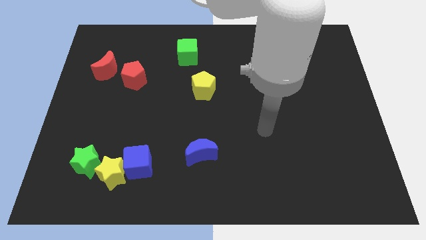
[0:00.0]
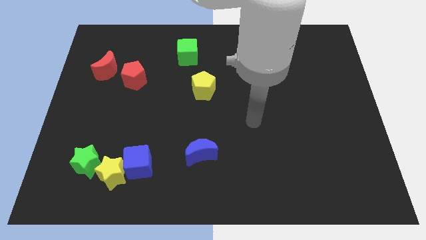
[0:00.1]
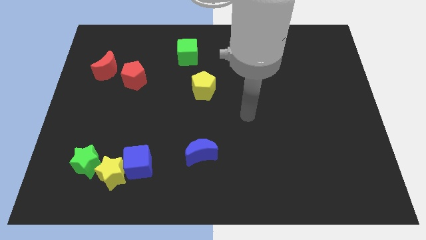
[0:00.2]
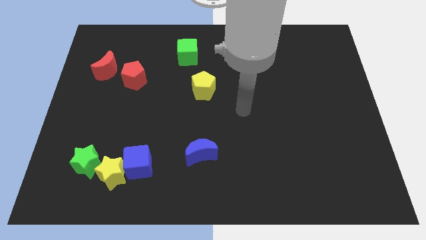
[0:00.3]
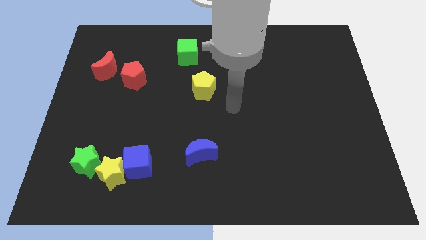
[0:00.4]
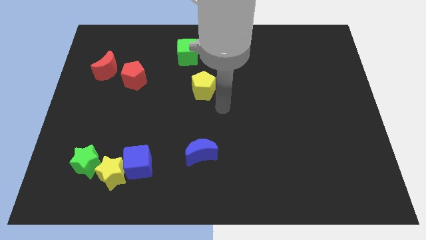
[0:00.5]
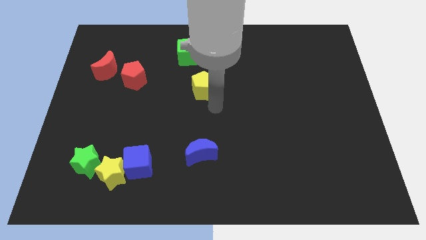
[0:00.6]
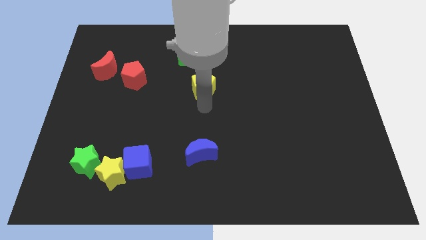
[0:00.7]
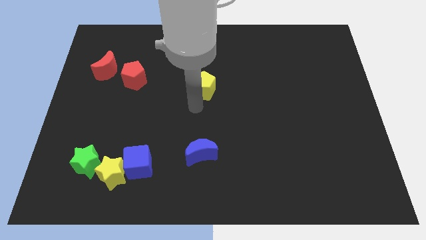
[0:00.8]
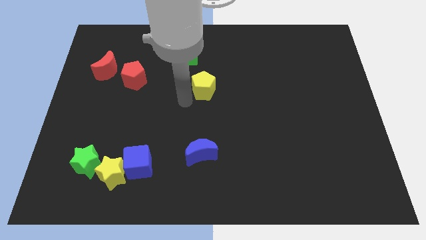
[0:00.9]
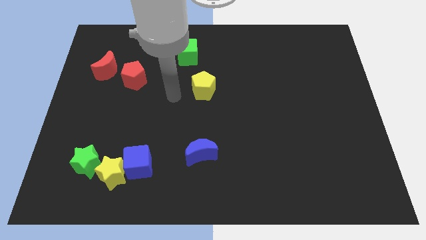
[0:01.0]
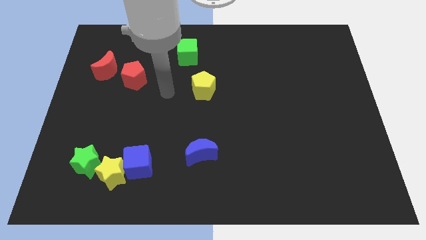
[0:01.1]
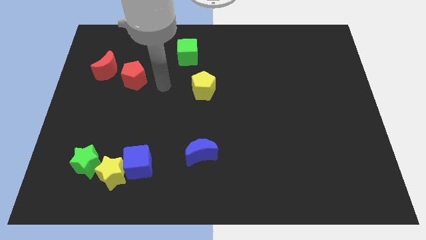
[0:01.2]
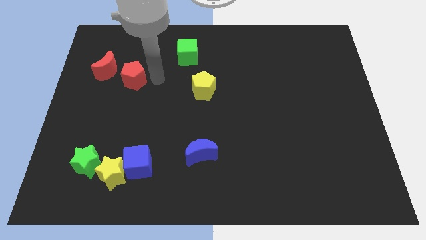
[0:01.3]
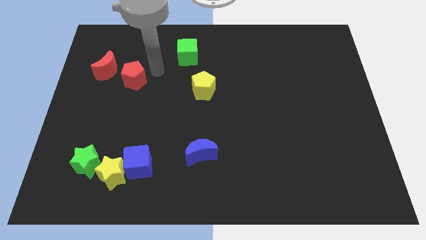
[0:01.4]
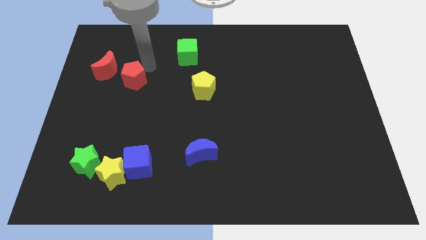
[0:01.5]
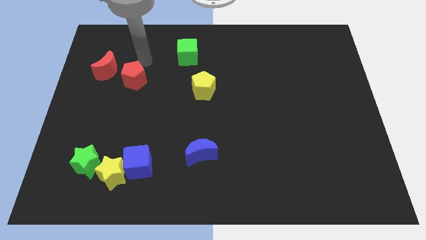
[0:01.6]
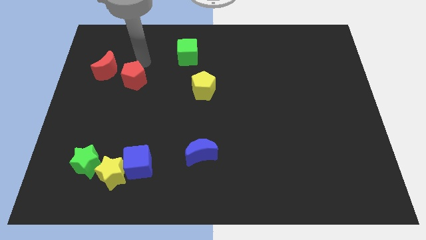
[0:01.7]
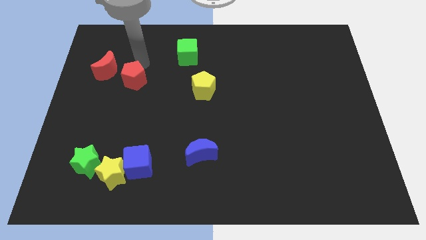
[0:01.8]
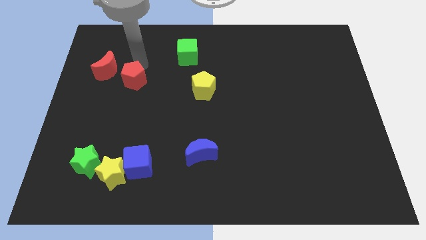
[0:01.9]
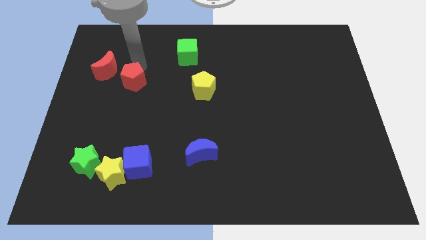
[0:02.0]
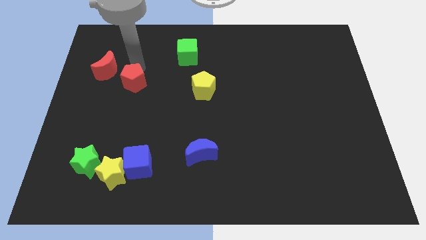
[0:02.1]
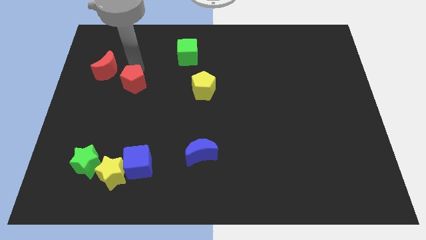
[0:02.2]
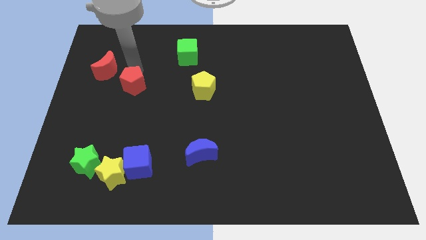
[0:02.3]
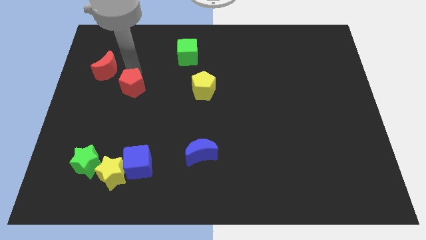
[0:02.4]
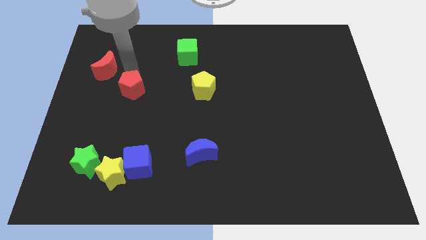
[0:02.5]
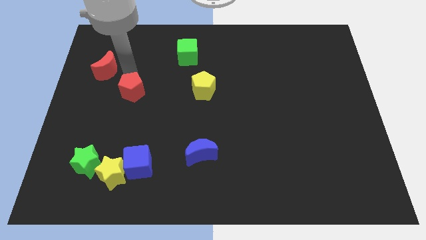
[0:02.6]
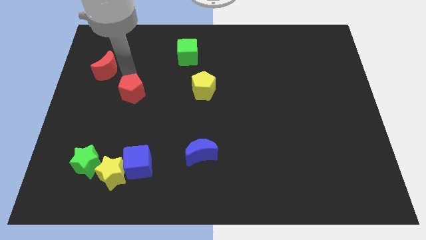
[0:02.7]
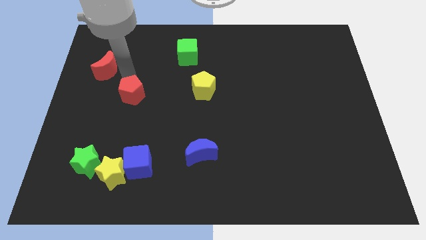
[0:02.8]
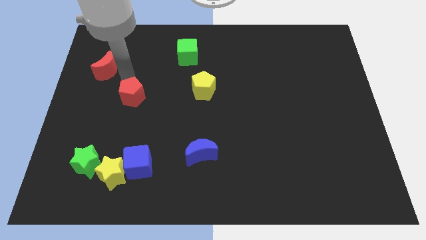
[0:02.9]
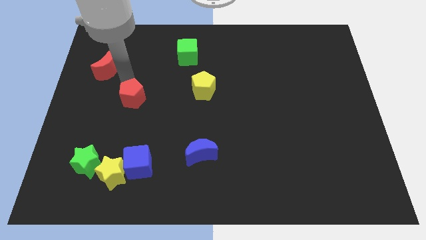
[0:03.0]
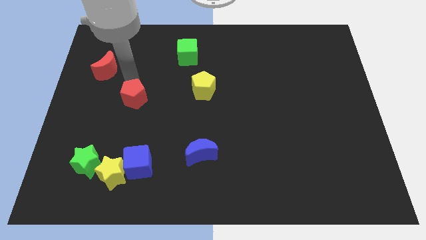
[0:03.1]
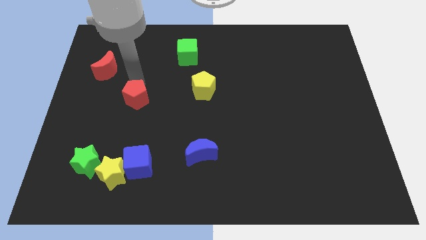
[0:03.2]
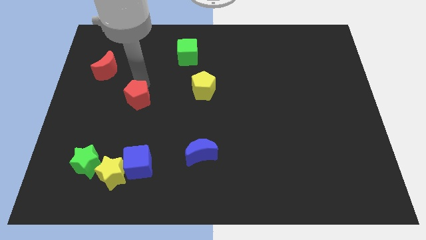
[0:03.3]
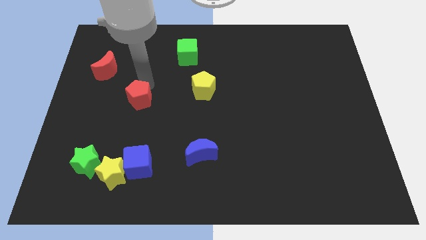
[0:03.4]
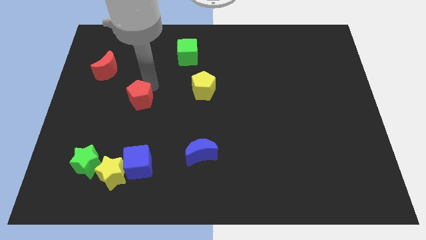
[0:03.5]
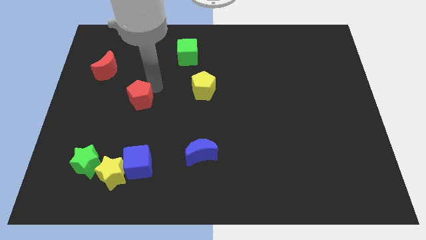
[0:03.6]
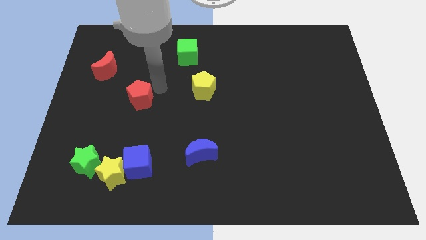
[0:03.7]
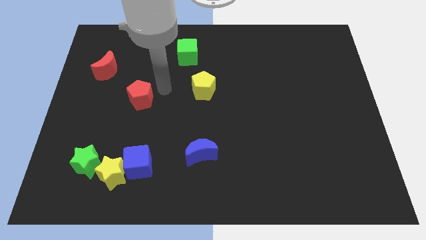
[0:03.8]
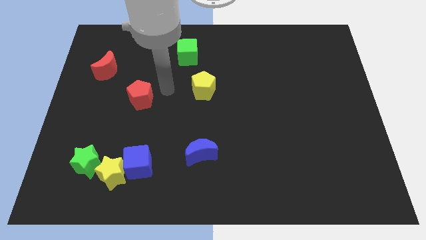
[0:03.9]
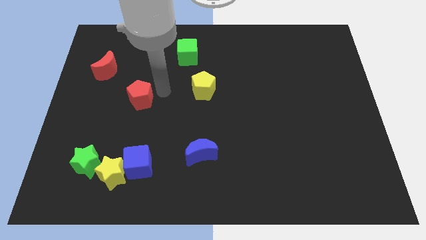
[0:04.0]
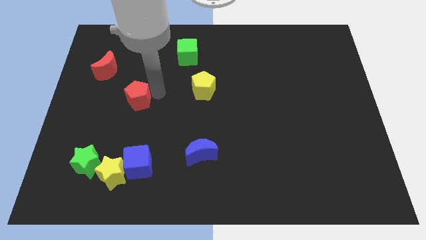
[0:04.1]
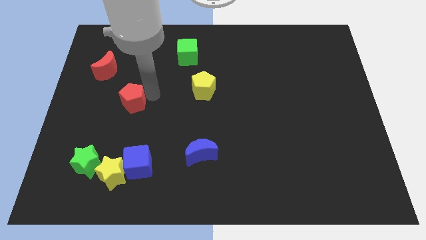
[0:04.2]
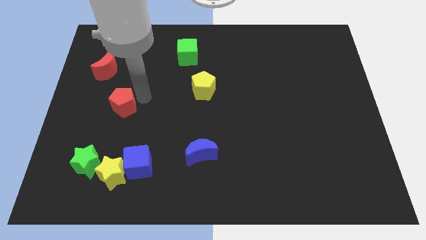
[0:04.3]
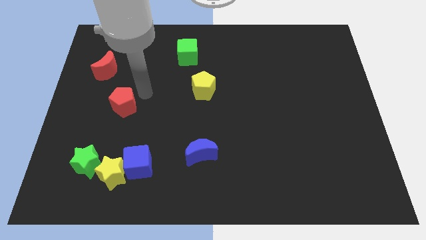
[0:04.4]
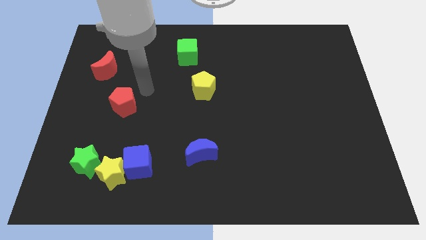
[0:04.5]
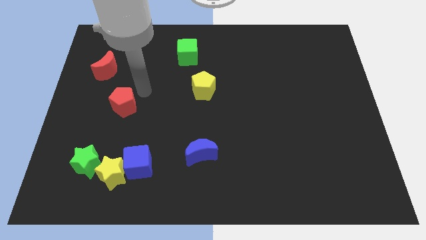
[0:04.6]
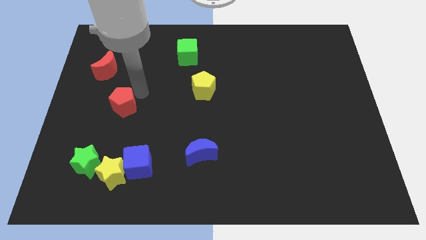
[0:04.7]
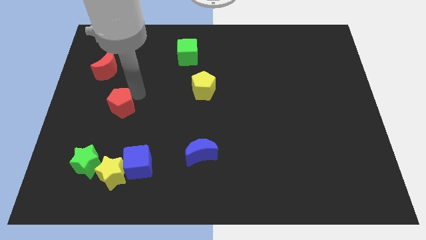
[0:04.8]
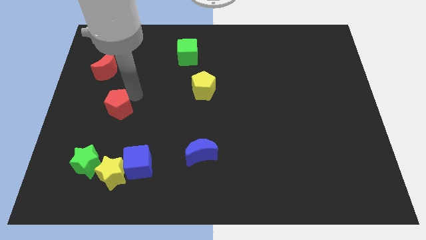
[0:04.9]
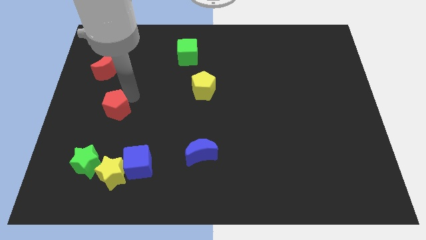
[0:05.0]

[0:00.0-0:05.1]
put the red pentagon above the green star

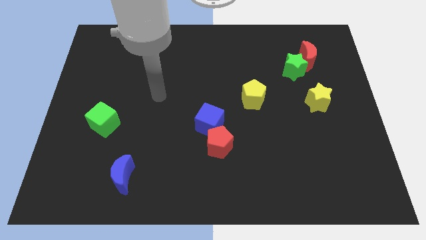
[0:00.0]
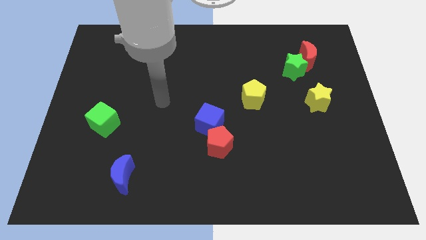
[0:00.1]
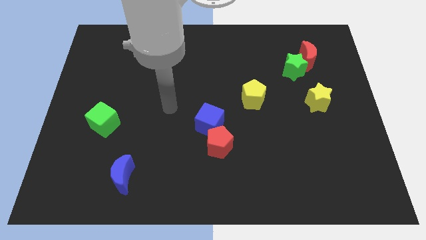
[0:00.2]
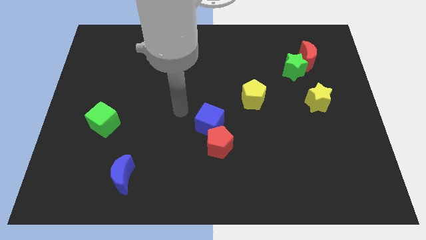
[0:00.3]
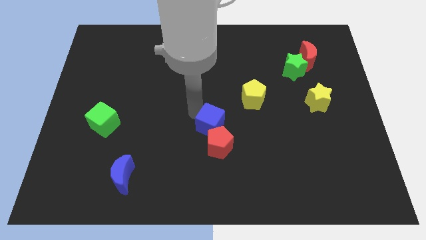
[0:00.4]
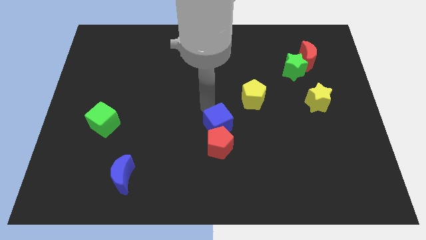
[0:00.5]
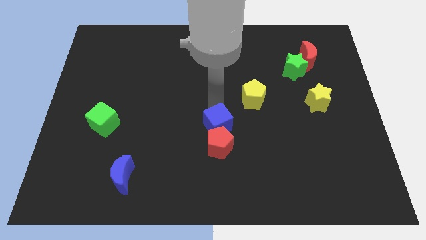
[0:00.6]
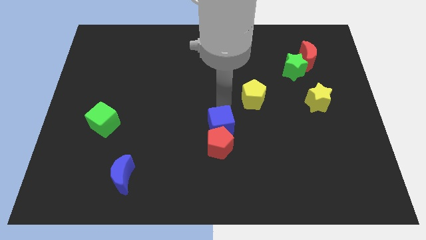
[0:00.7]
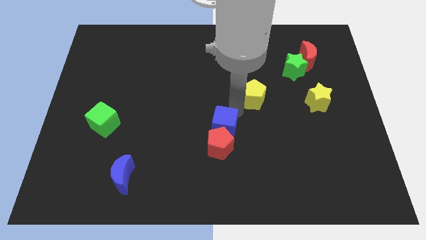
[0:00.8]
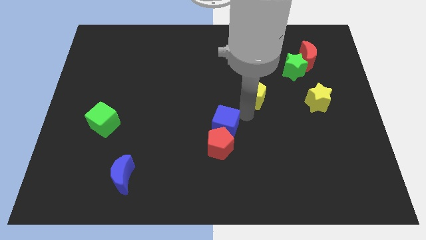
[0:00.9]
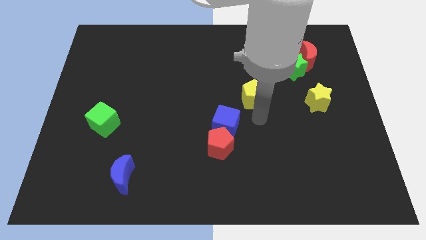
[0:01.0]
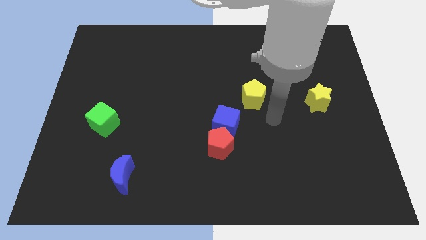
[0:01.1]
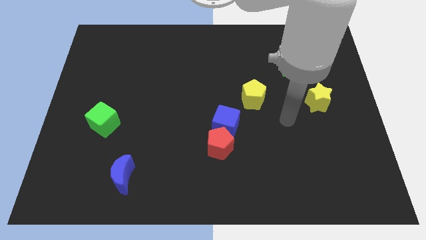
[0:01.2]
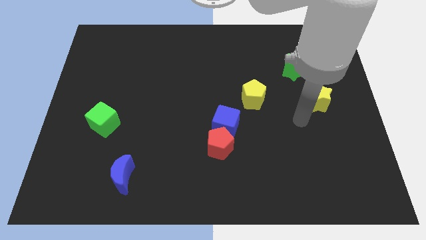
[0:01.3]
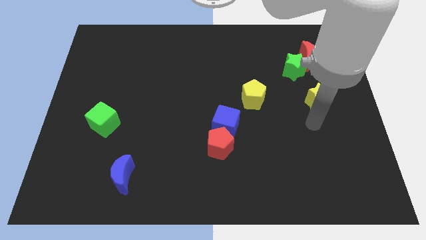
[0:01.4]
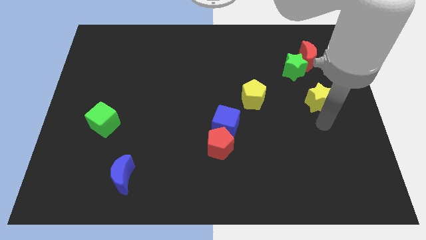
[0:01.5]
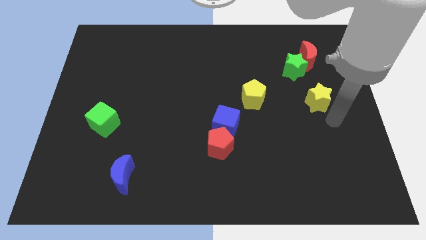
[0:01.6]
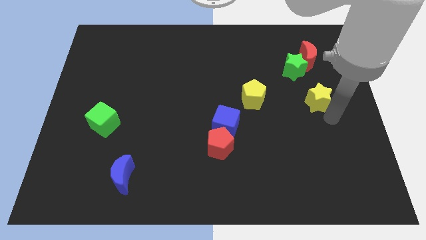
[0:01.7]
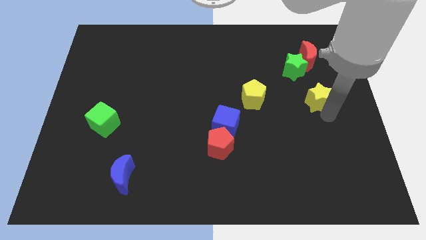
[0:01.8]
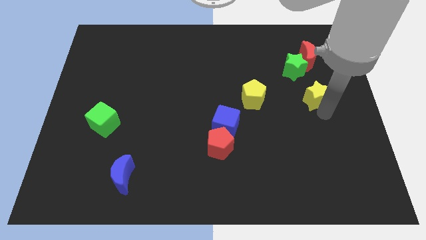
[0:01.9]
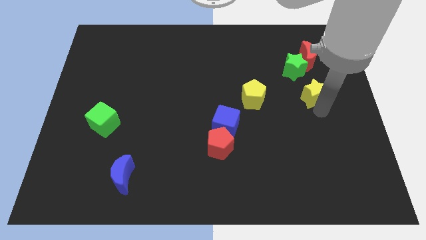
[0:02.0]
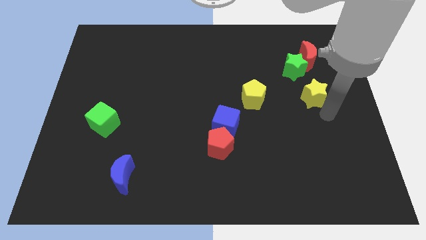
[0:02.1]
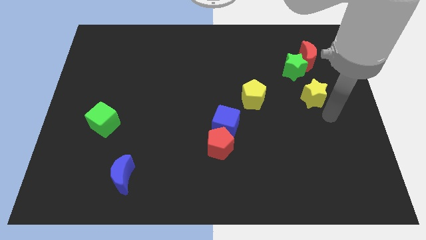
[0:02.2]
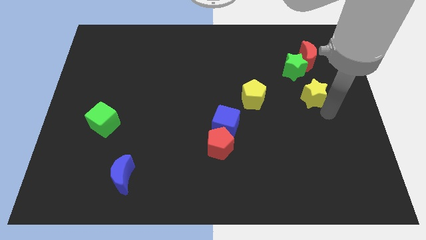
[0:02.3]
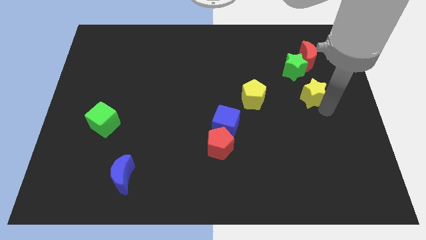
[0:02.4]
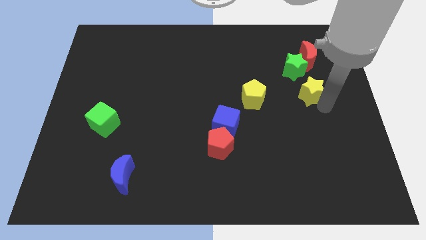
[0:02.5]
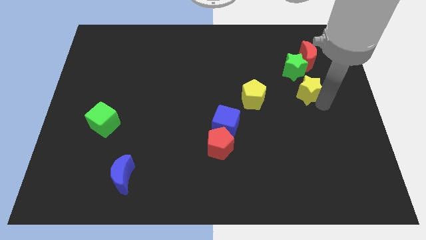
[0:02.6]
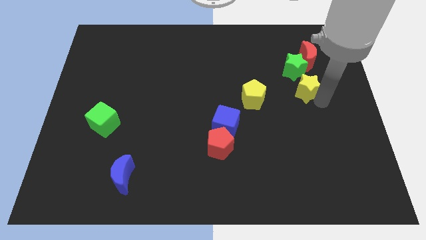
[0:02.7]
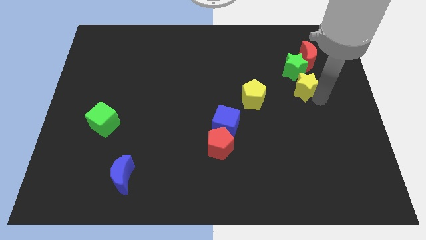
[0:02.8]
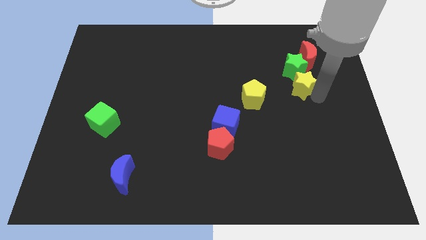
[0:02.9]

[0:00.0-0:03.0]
slide the yellow star to the bottom left side of the red moon
